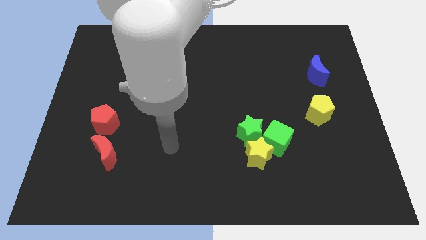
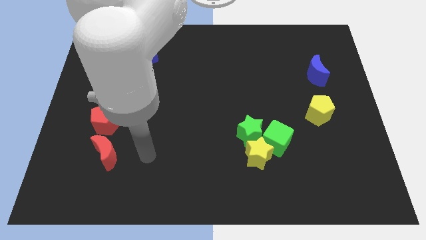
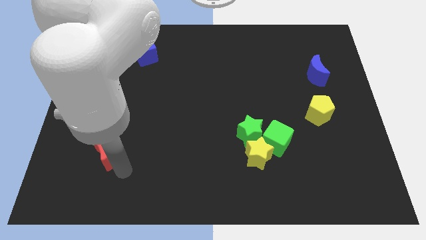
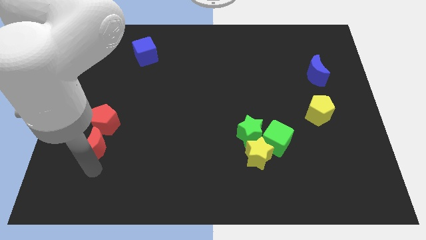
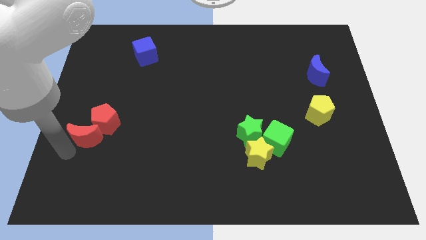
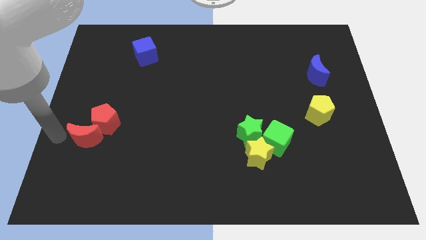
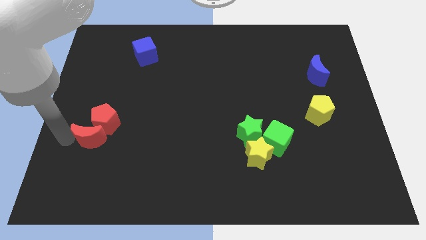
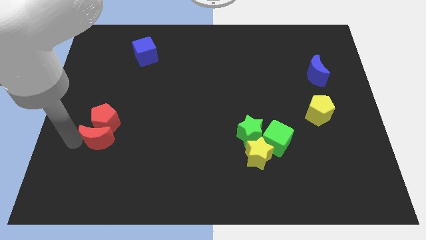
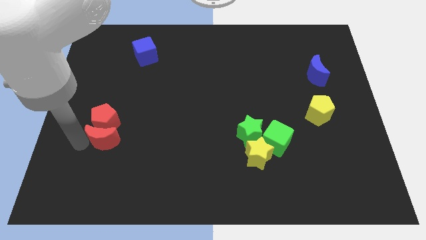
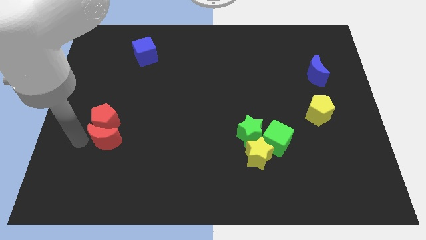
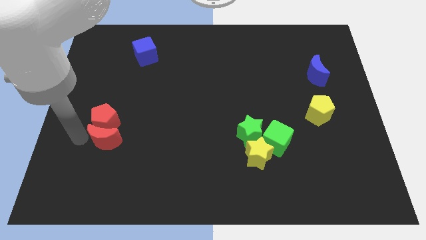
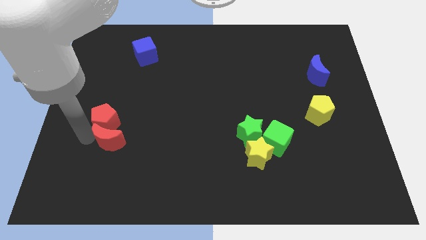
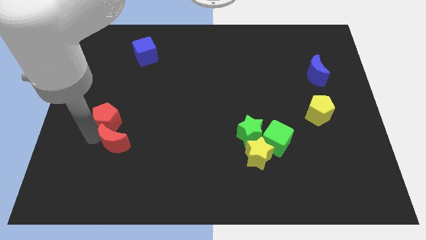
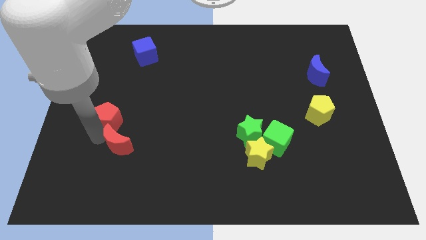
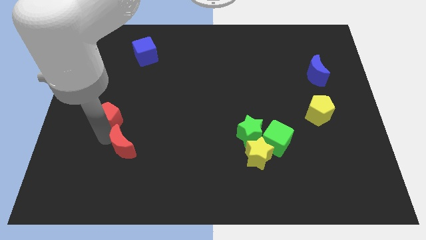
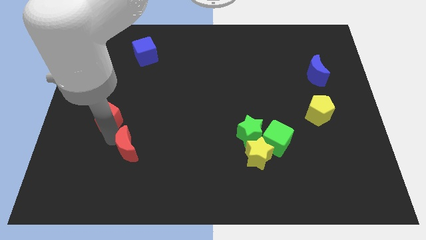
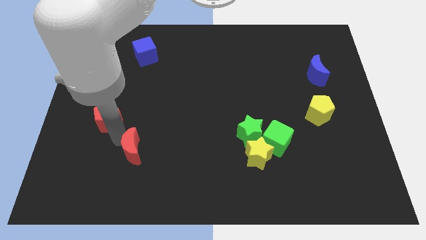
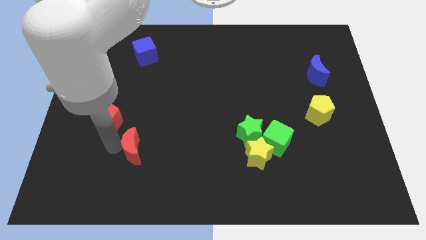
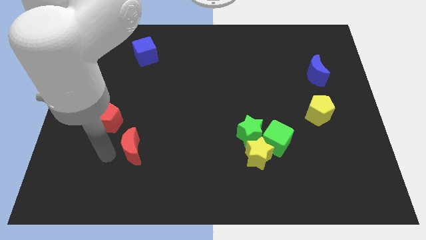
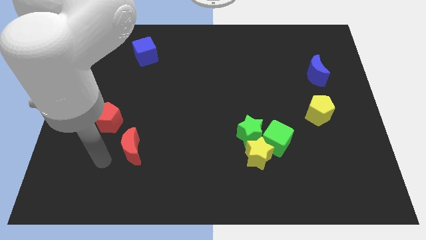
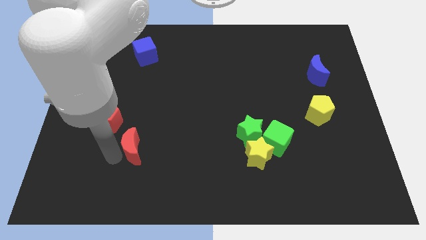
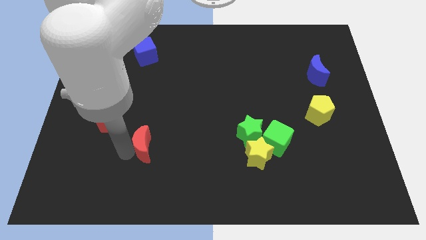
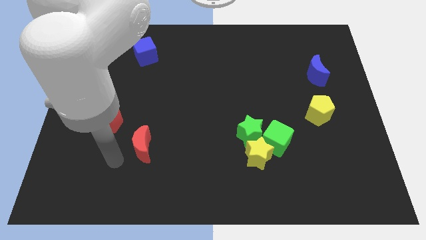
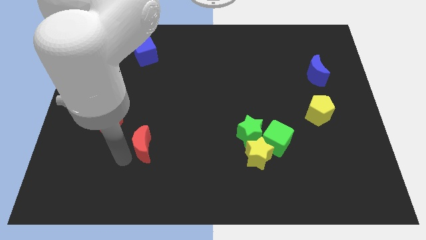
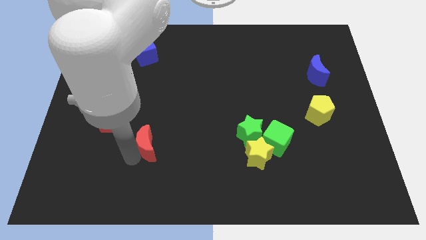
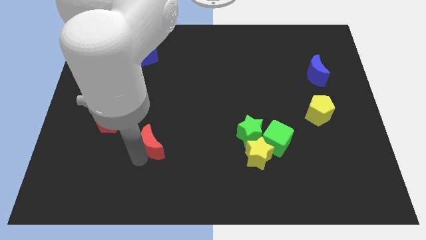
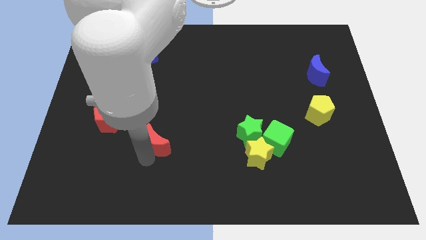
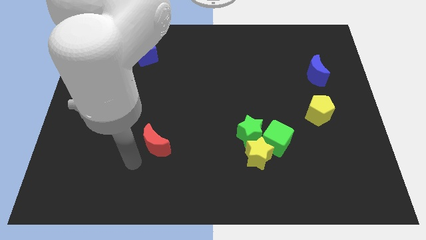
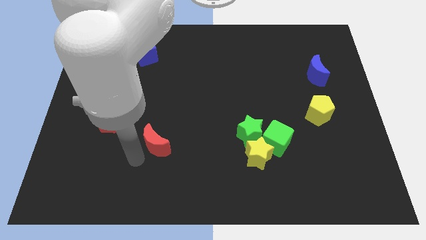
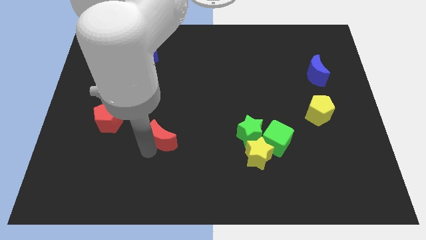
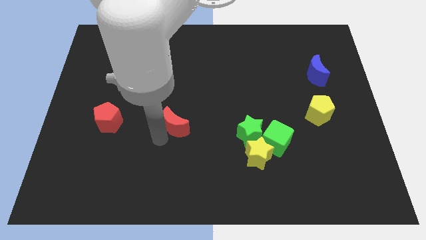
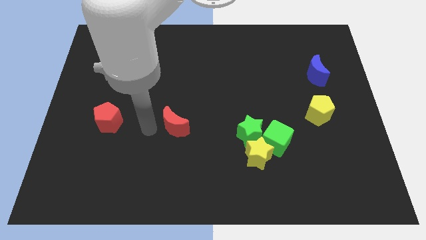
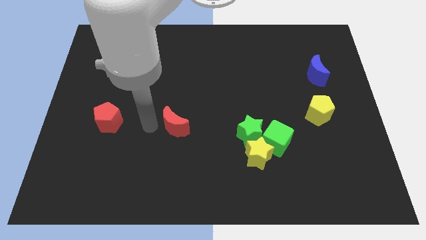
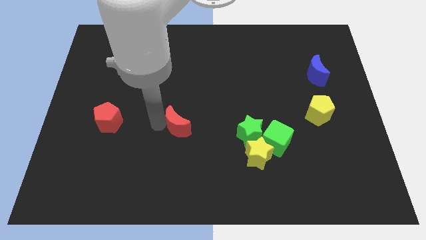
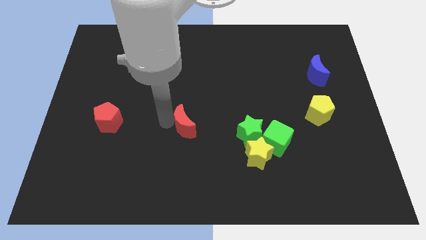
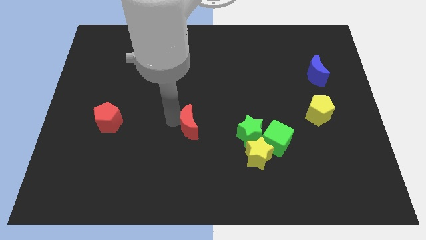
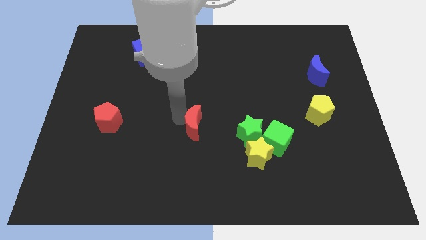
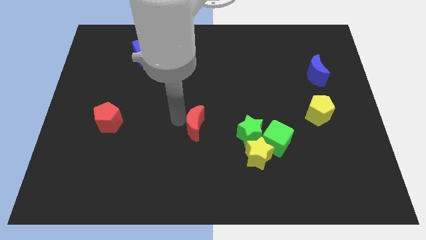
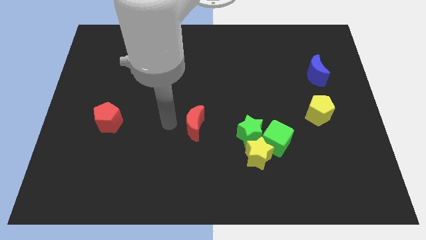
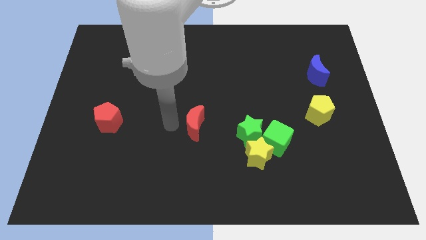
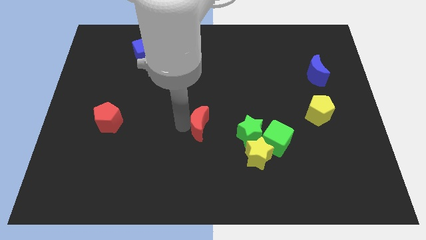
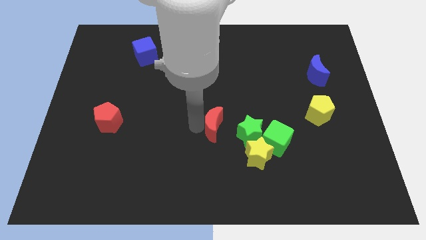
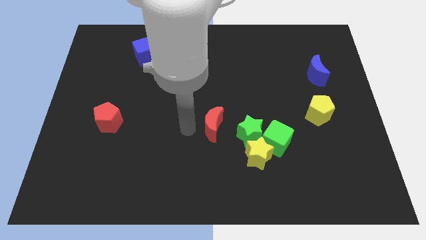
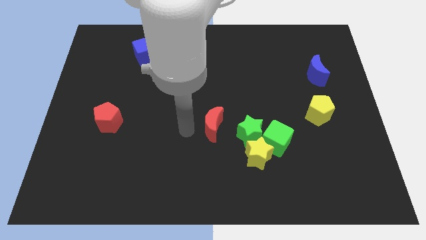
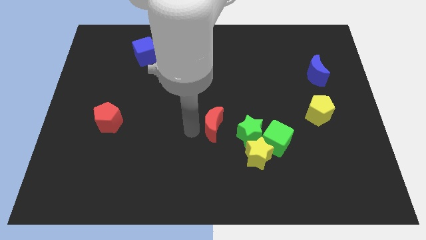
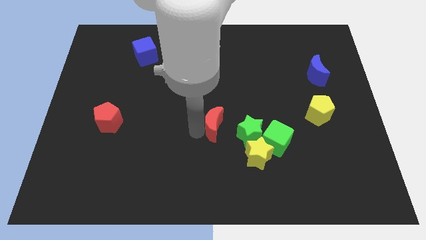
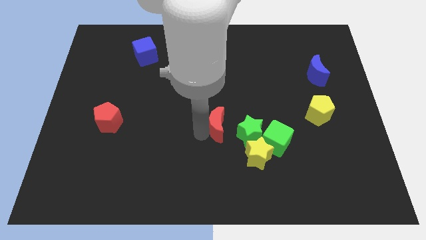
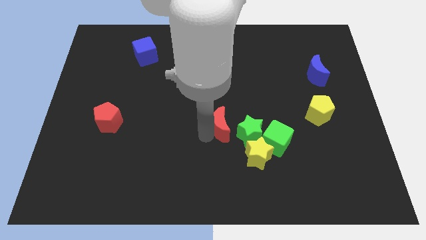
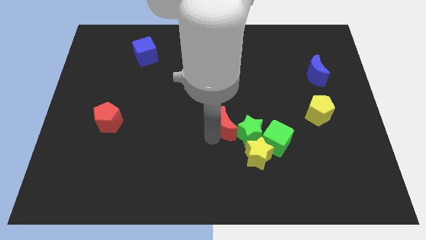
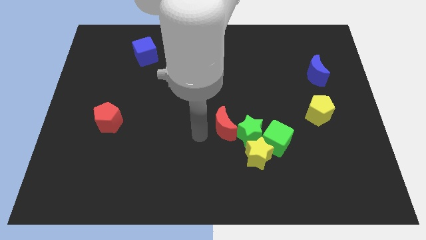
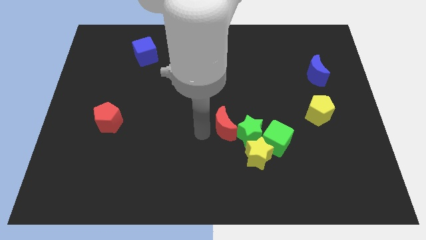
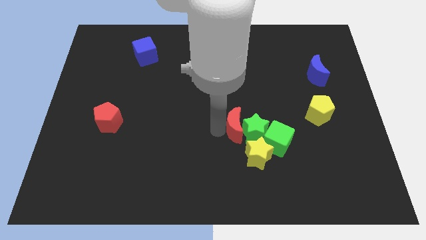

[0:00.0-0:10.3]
slide the red moon to the top left side of the green cube

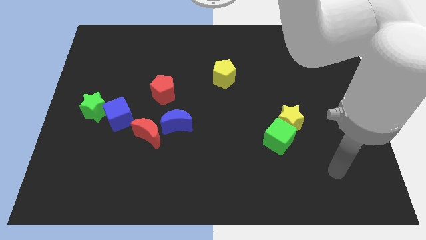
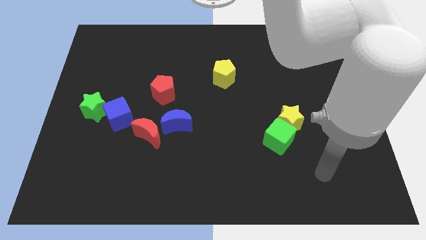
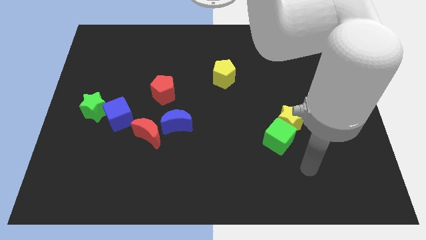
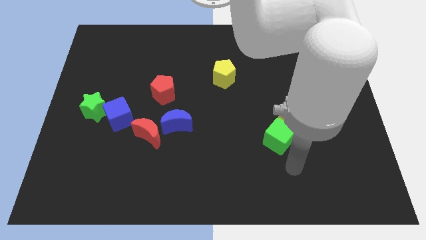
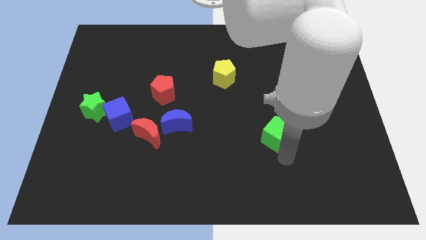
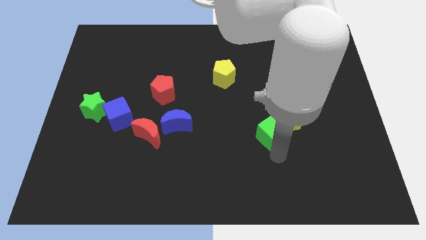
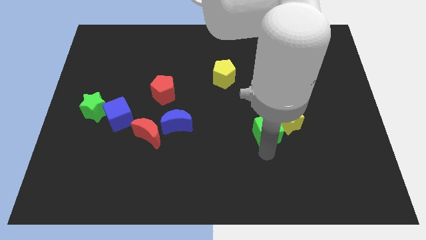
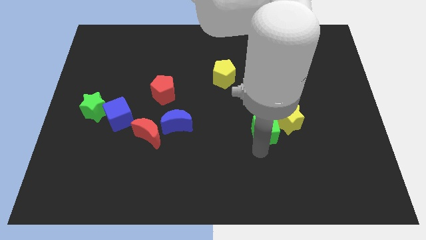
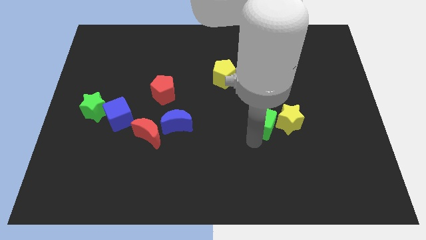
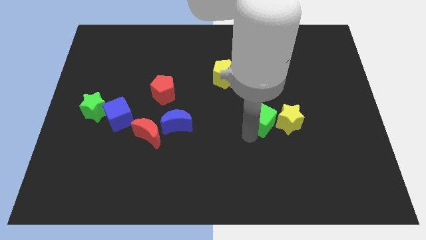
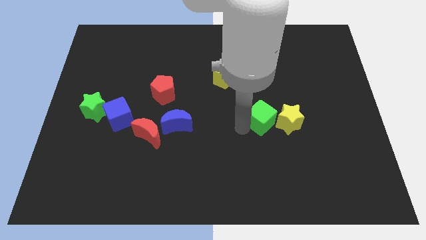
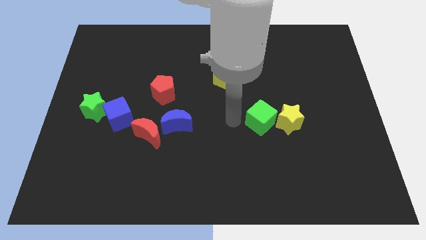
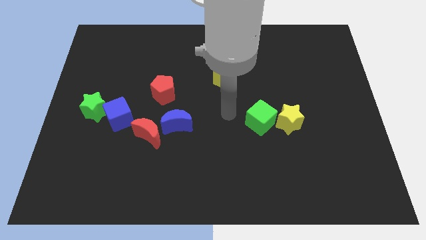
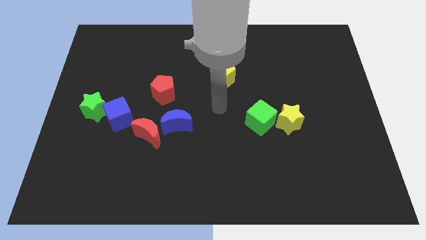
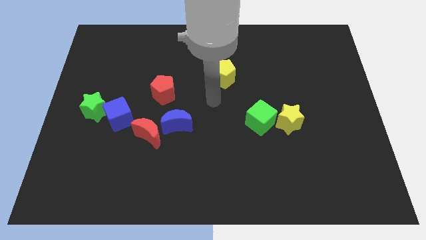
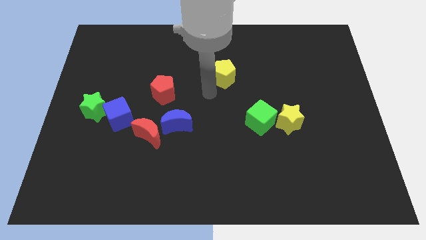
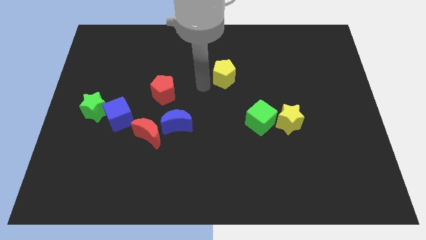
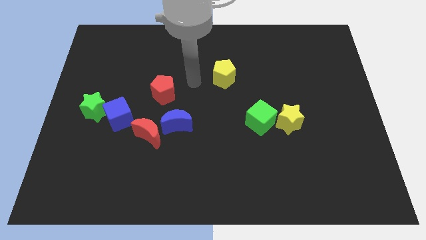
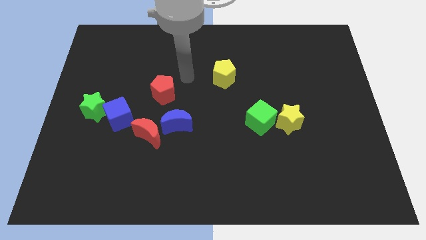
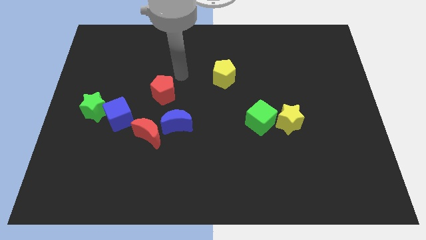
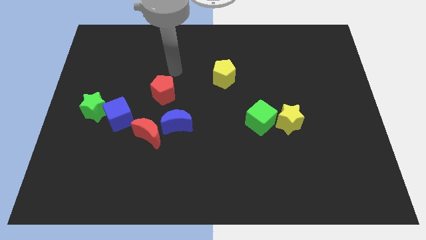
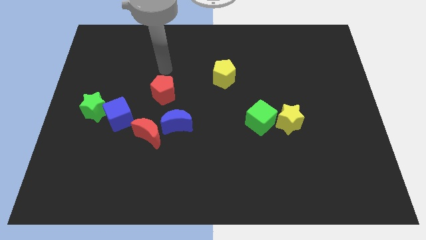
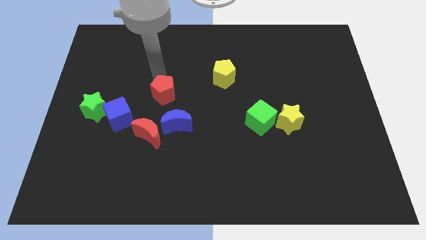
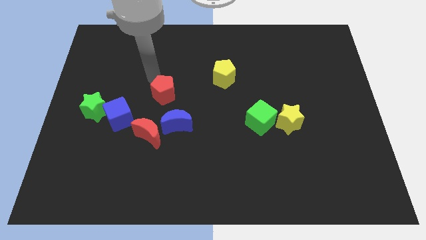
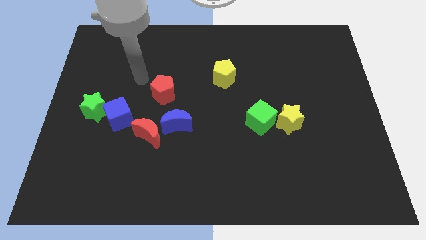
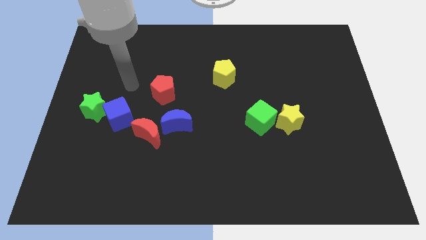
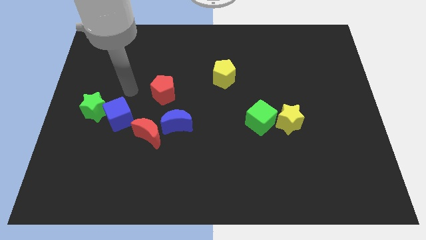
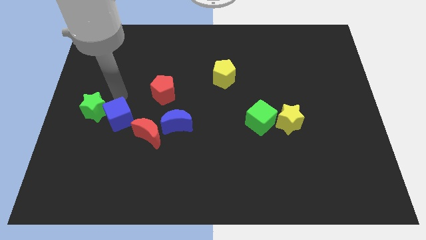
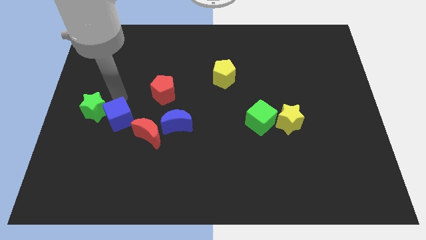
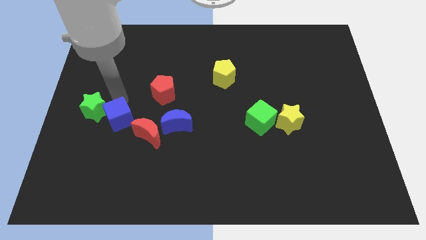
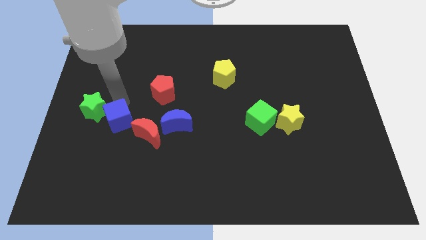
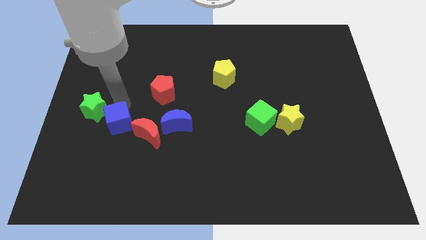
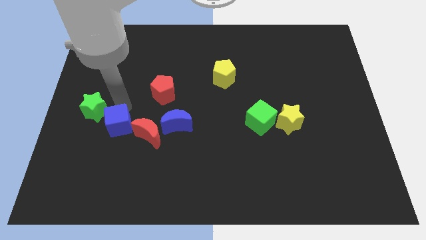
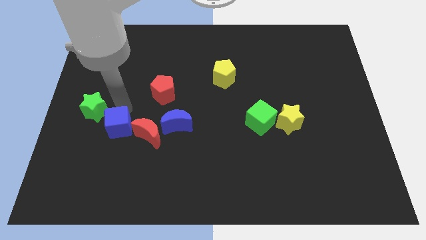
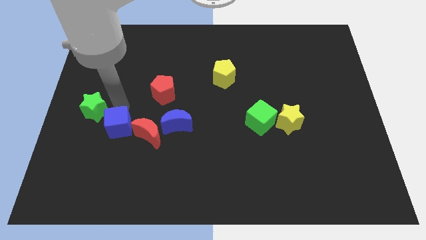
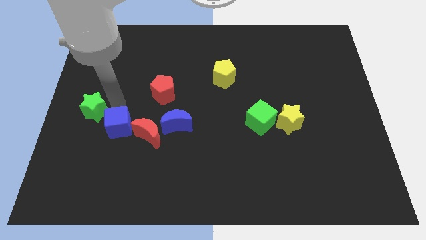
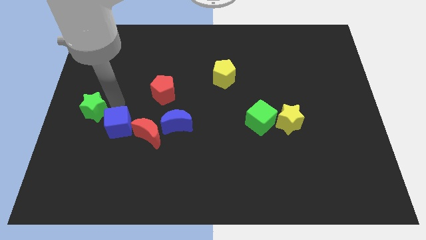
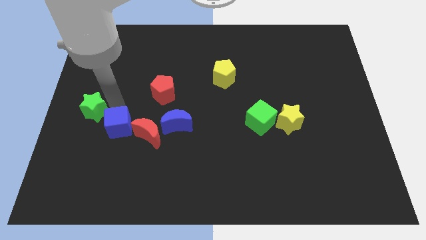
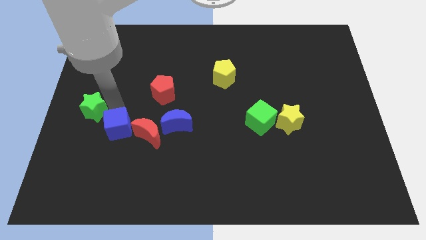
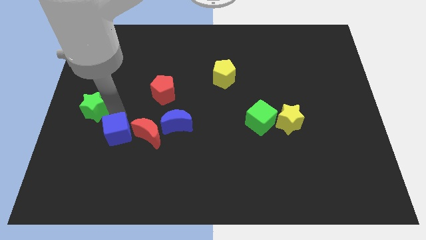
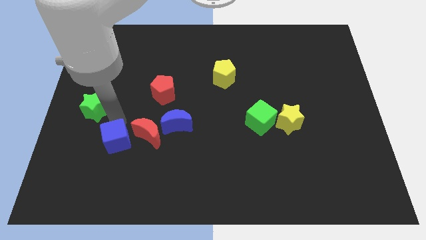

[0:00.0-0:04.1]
put the blue cube diagonally down and to the left of the red moon
